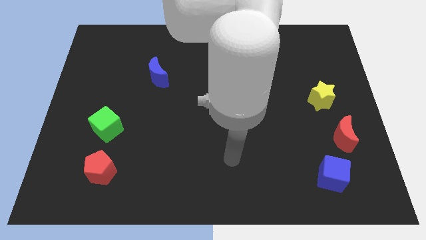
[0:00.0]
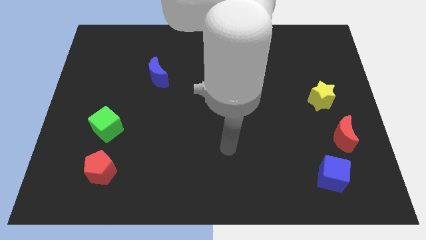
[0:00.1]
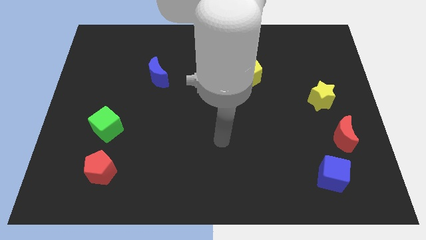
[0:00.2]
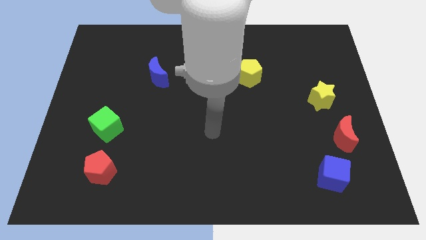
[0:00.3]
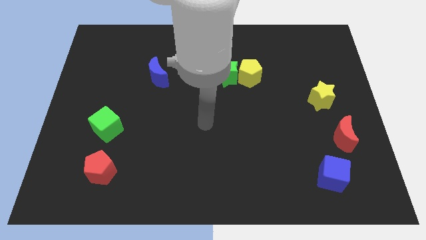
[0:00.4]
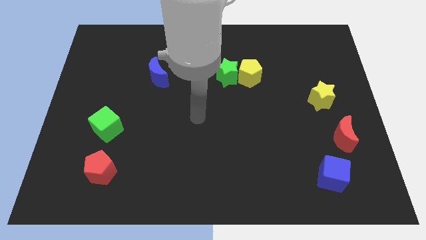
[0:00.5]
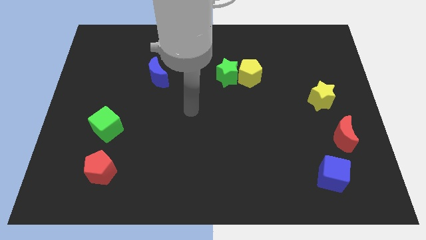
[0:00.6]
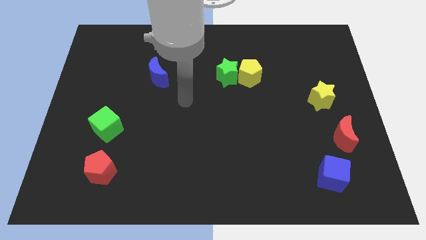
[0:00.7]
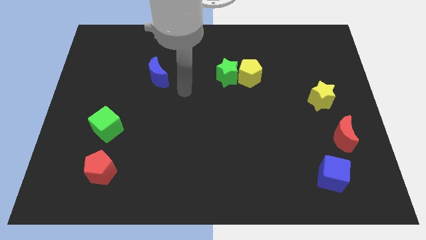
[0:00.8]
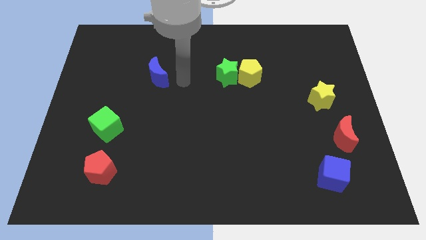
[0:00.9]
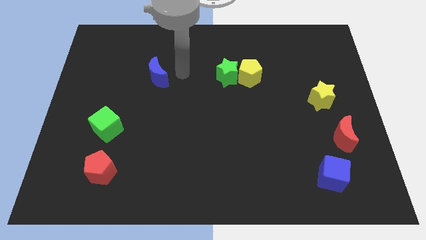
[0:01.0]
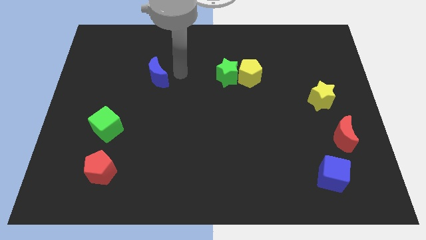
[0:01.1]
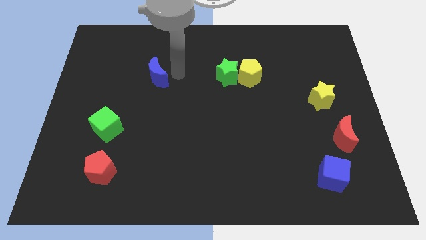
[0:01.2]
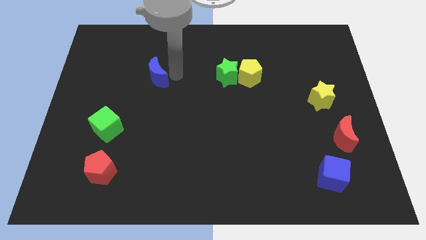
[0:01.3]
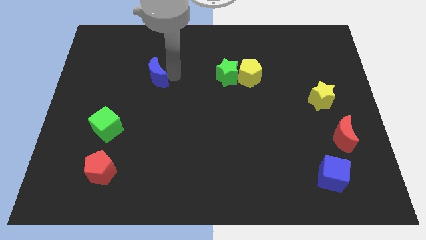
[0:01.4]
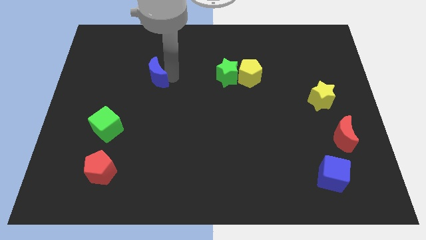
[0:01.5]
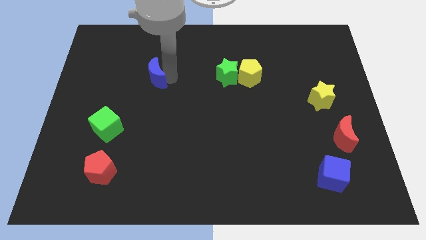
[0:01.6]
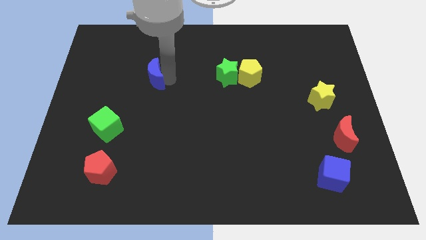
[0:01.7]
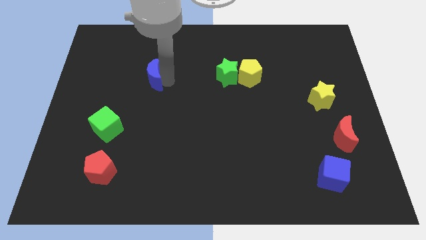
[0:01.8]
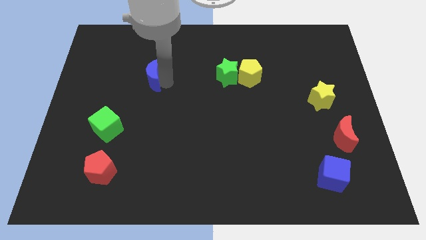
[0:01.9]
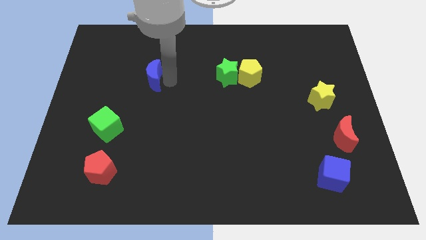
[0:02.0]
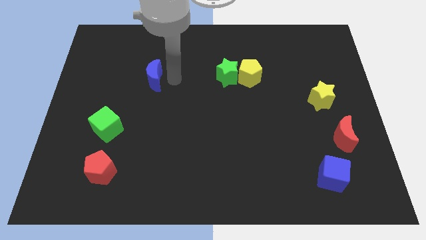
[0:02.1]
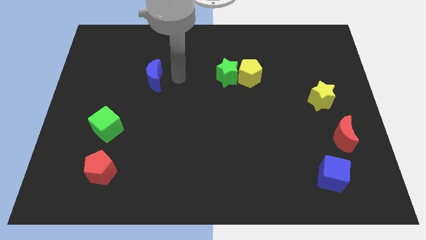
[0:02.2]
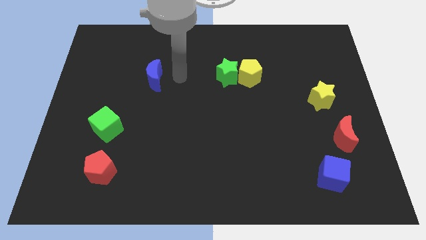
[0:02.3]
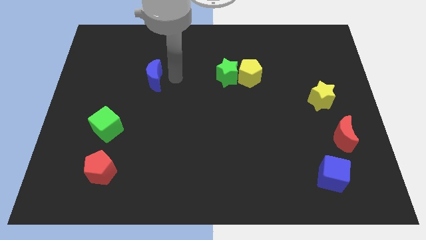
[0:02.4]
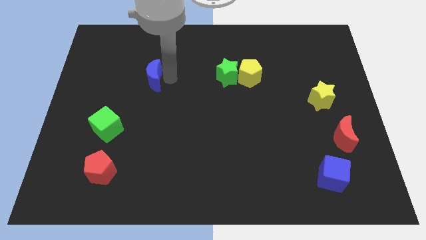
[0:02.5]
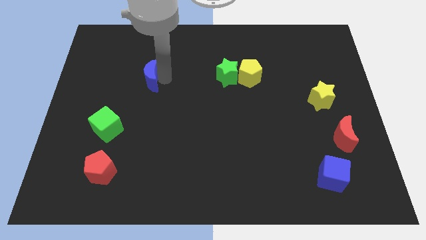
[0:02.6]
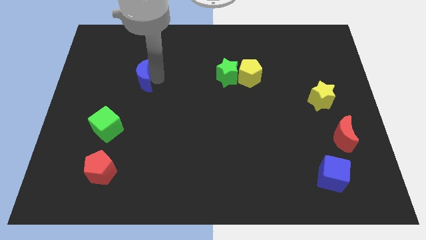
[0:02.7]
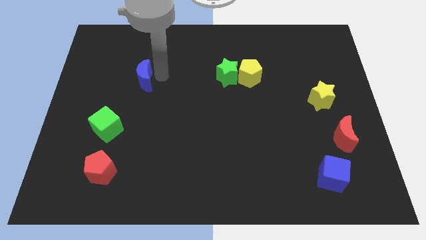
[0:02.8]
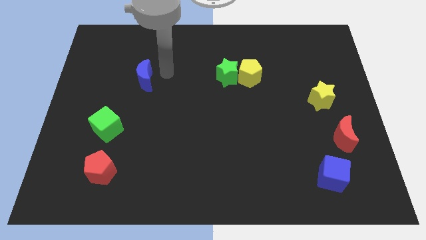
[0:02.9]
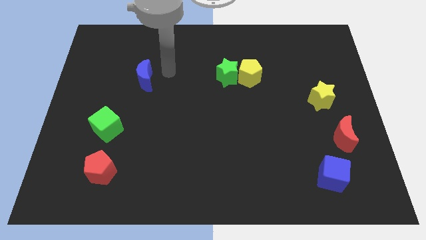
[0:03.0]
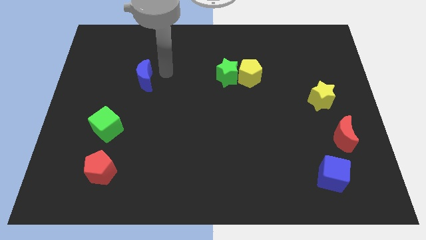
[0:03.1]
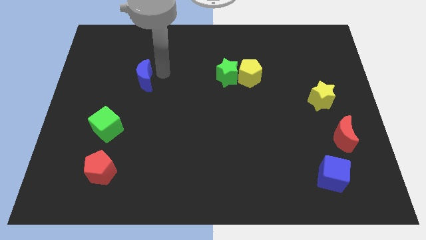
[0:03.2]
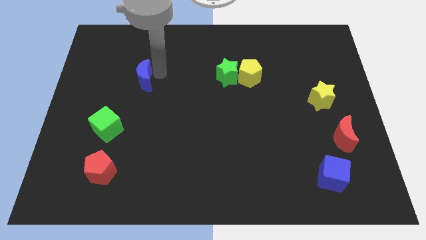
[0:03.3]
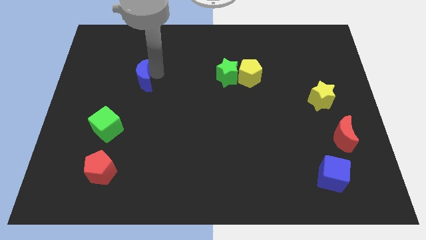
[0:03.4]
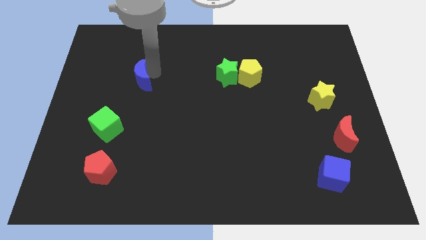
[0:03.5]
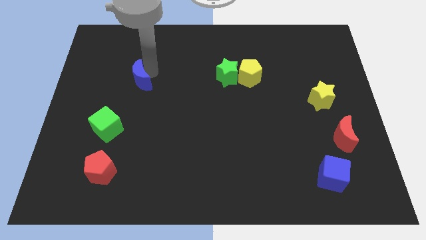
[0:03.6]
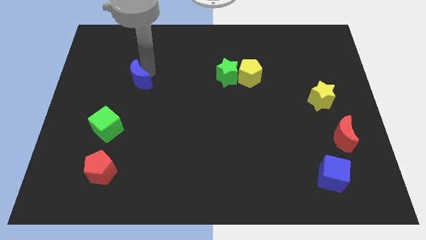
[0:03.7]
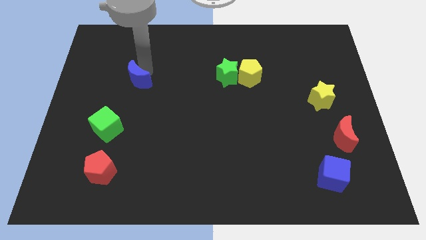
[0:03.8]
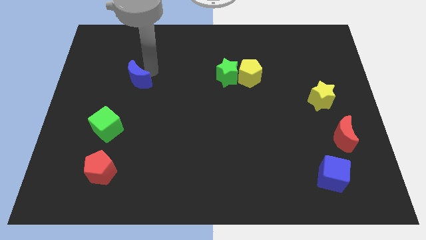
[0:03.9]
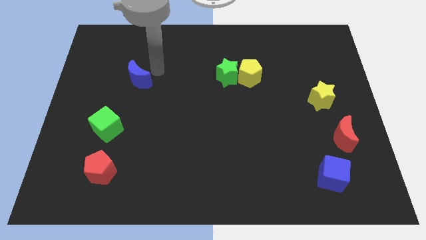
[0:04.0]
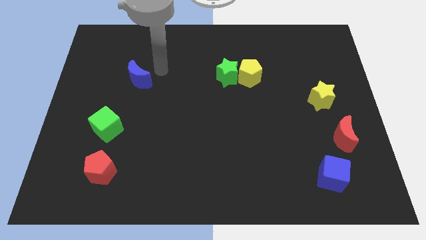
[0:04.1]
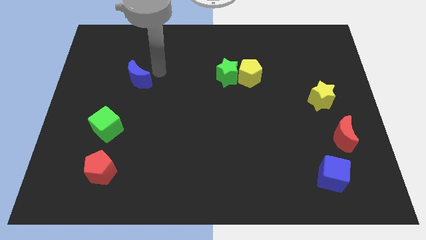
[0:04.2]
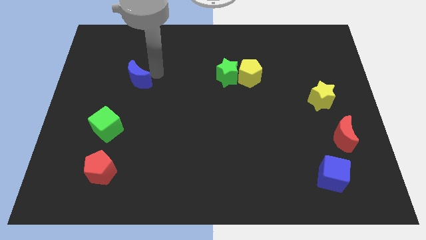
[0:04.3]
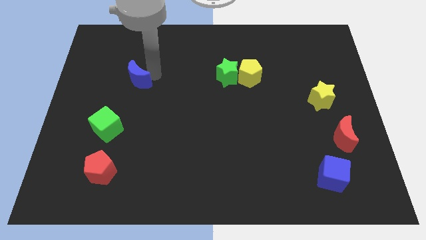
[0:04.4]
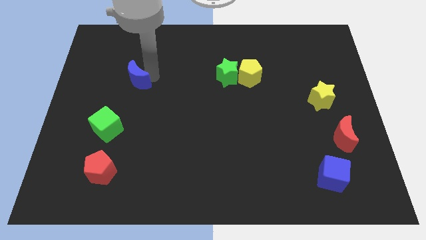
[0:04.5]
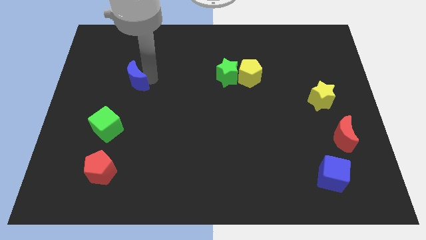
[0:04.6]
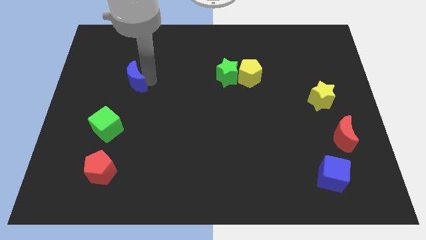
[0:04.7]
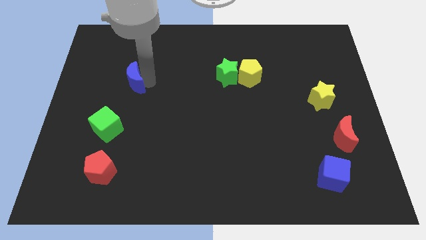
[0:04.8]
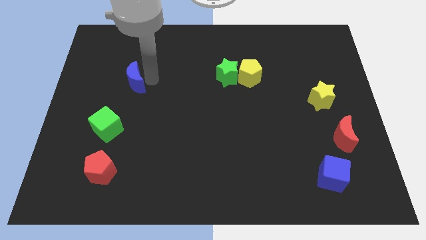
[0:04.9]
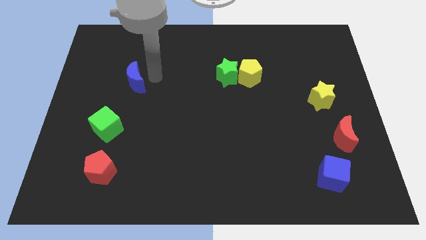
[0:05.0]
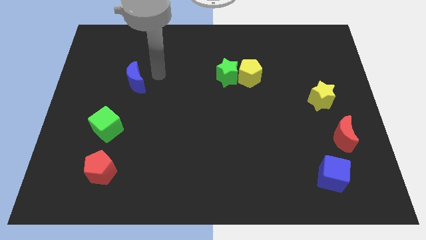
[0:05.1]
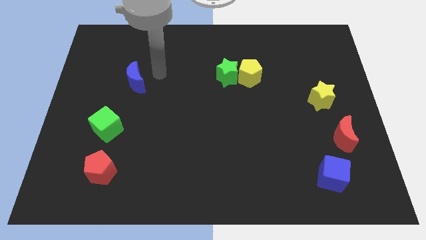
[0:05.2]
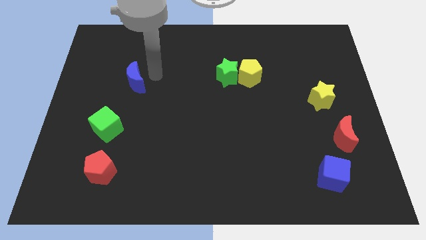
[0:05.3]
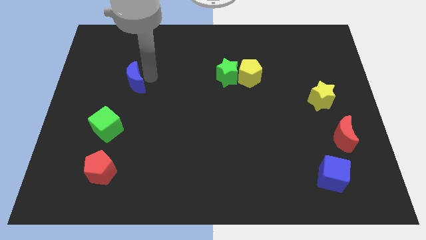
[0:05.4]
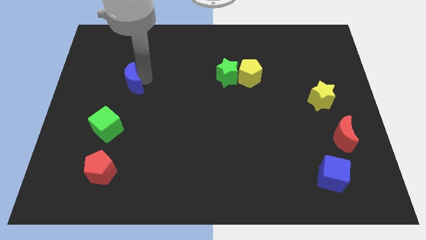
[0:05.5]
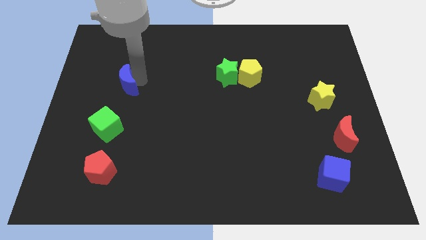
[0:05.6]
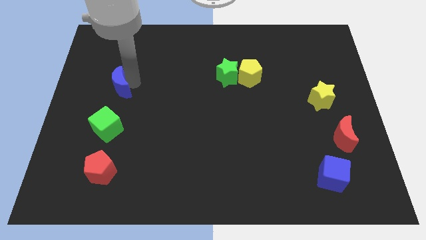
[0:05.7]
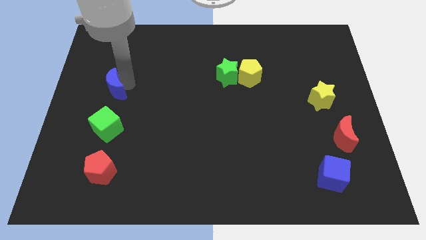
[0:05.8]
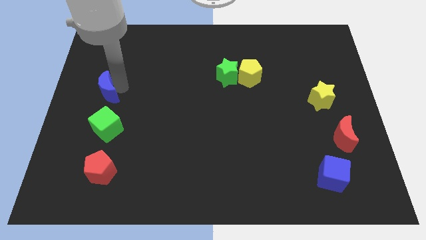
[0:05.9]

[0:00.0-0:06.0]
move the blue moon to the center left

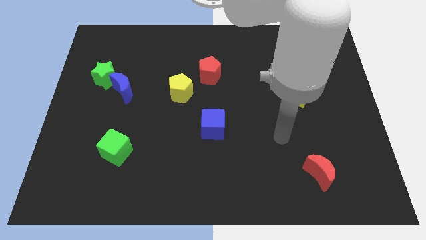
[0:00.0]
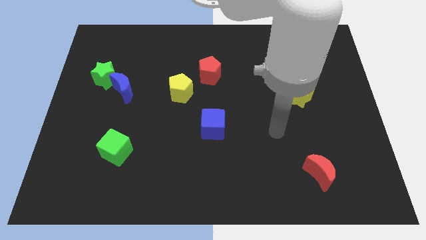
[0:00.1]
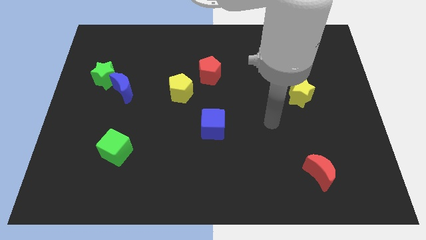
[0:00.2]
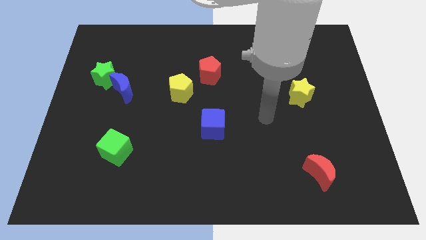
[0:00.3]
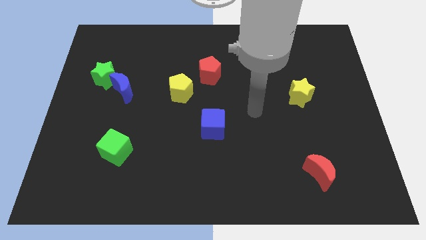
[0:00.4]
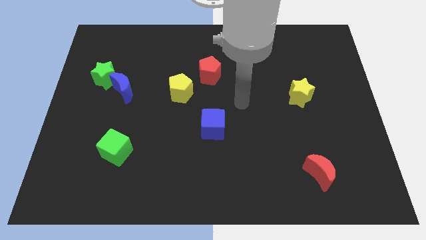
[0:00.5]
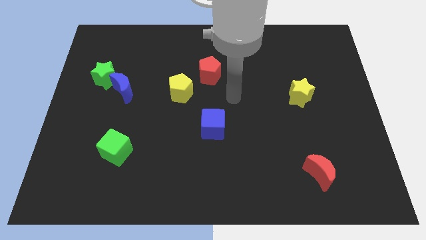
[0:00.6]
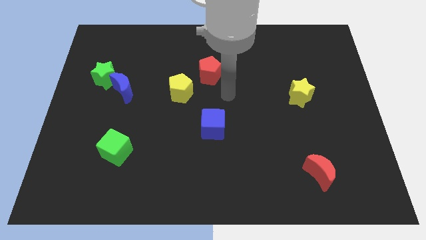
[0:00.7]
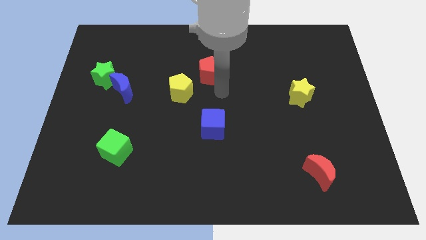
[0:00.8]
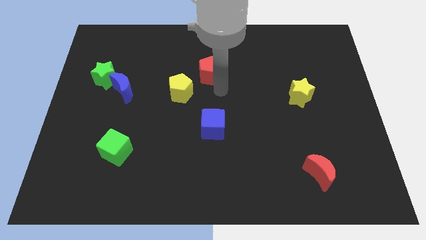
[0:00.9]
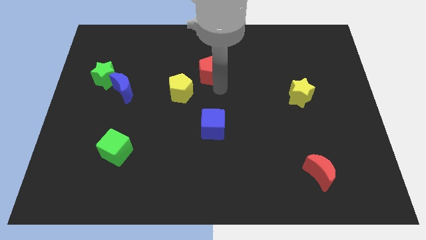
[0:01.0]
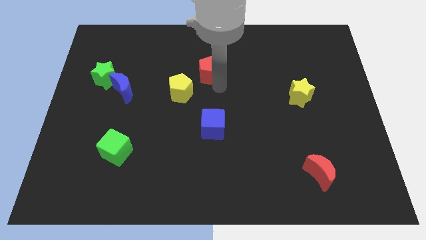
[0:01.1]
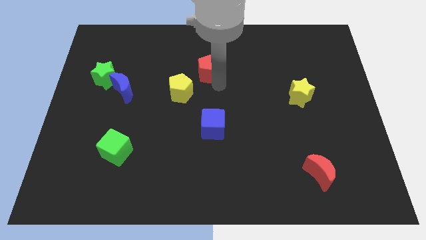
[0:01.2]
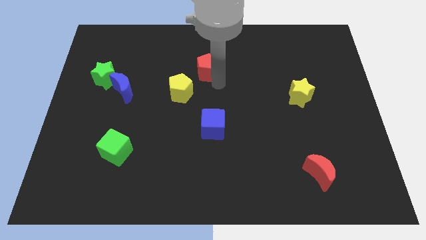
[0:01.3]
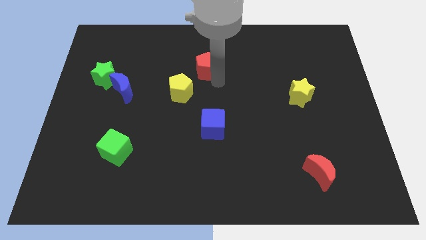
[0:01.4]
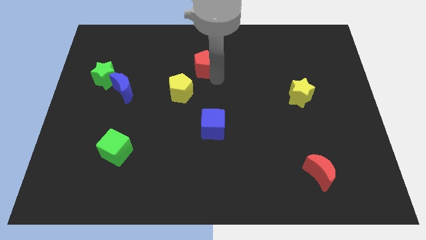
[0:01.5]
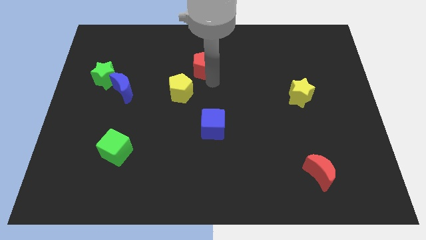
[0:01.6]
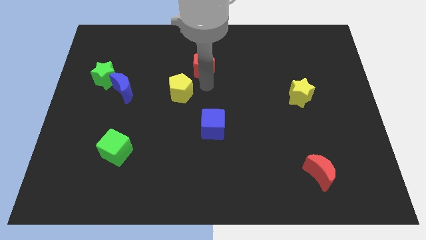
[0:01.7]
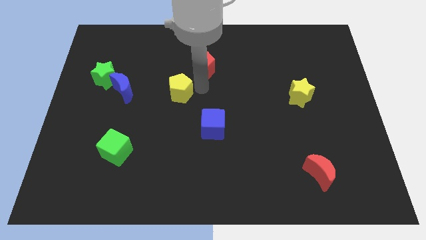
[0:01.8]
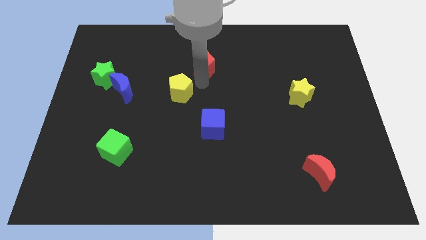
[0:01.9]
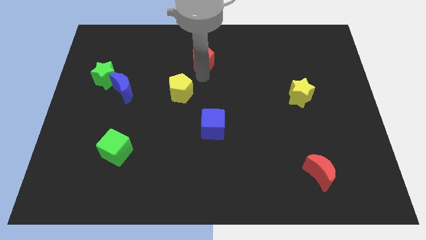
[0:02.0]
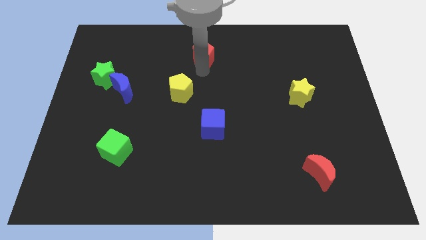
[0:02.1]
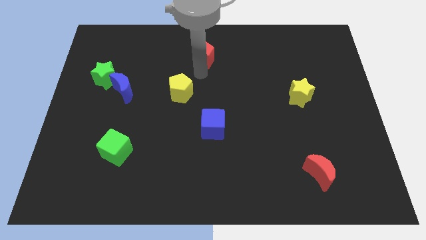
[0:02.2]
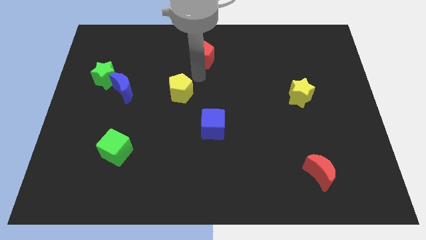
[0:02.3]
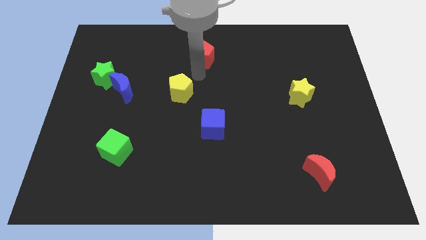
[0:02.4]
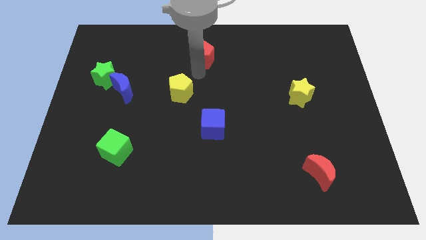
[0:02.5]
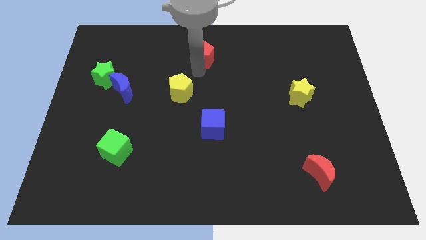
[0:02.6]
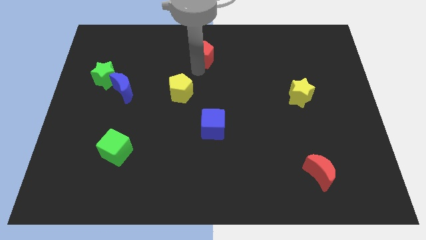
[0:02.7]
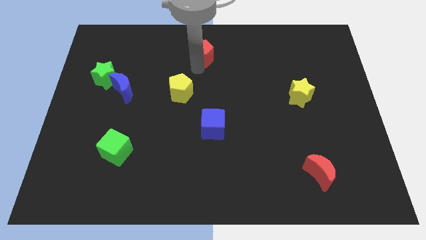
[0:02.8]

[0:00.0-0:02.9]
put the red pentagon to the towards your base
